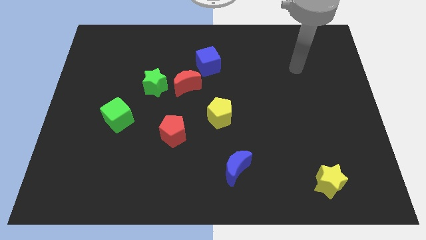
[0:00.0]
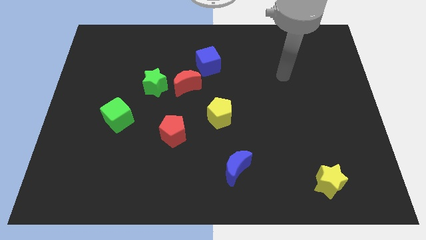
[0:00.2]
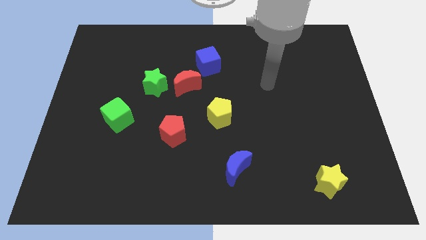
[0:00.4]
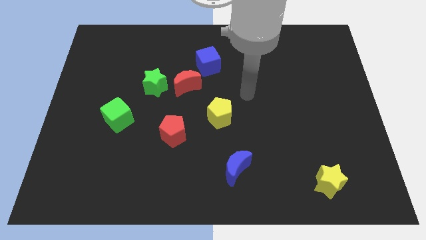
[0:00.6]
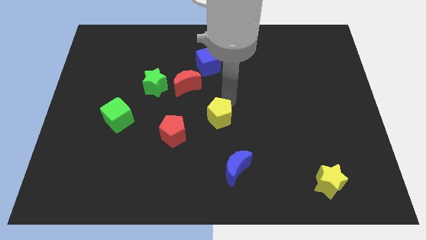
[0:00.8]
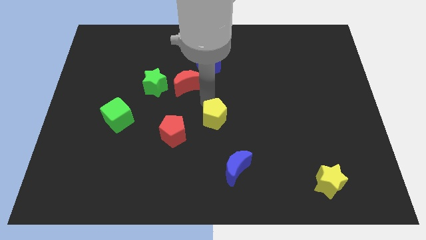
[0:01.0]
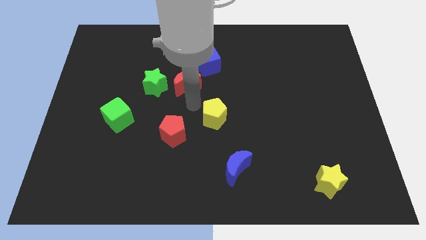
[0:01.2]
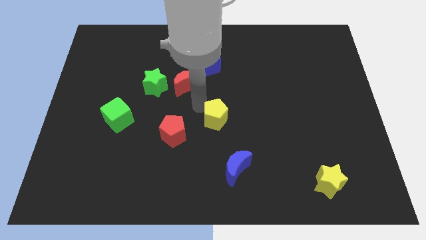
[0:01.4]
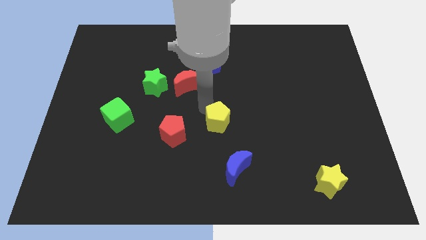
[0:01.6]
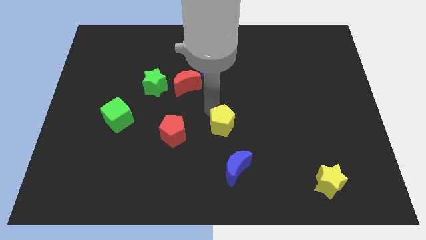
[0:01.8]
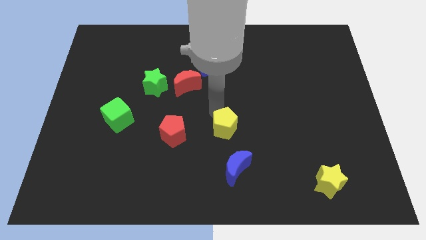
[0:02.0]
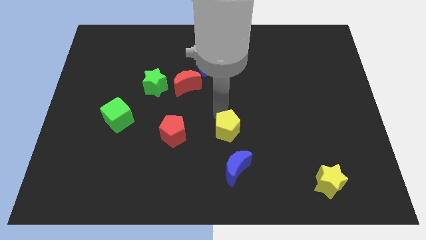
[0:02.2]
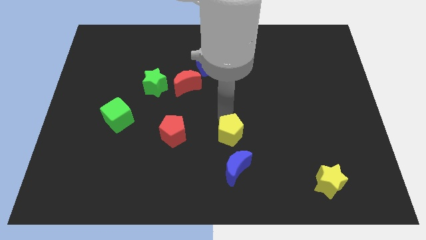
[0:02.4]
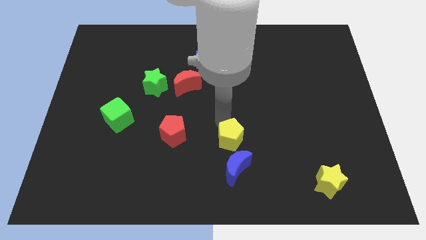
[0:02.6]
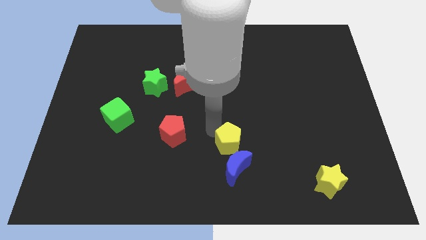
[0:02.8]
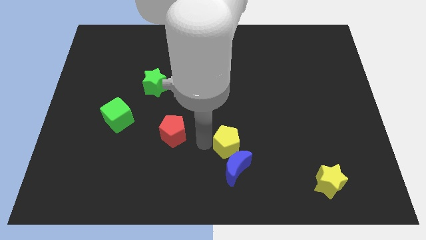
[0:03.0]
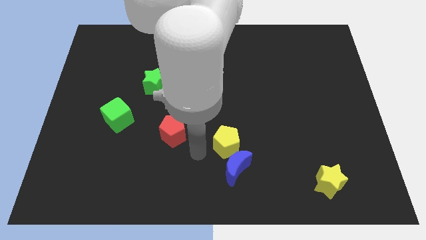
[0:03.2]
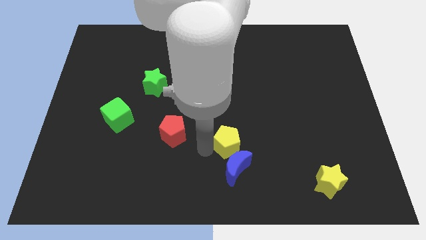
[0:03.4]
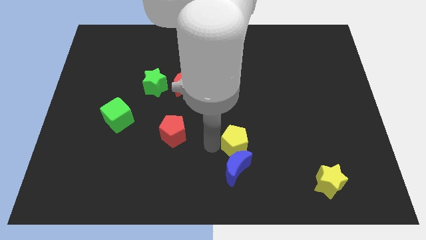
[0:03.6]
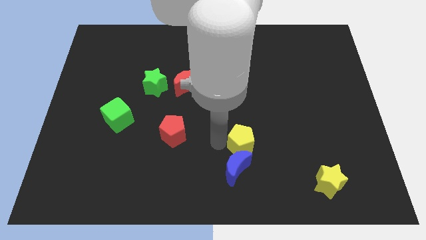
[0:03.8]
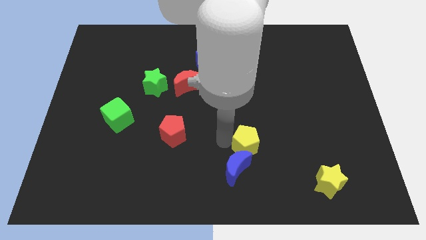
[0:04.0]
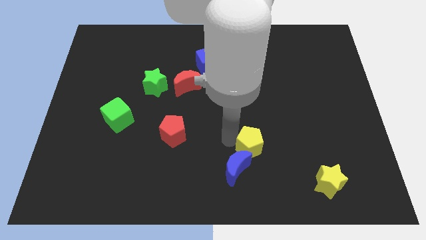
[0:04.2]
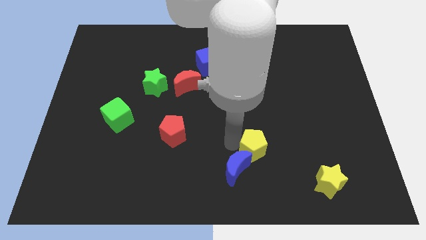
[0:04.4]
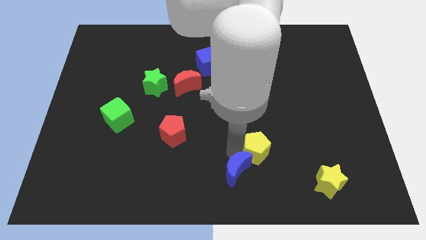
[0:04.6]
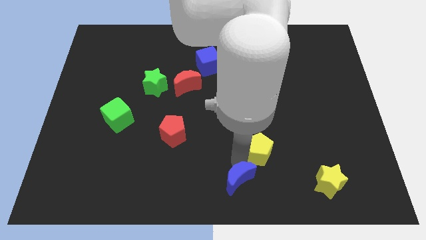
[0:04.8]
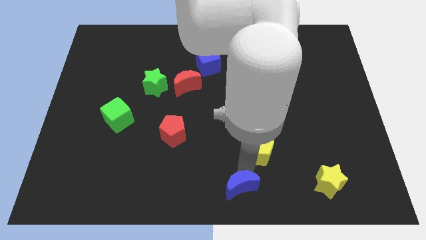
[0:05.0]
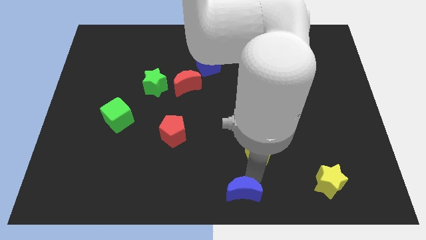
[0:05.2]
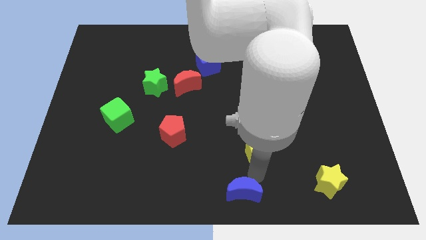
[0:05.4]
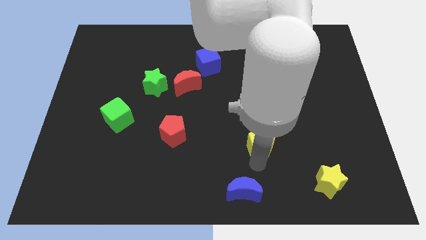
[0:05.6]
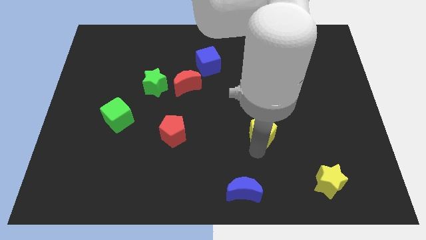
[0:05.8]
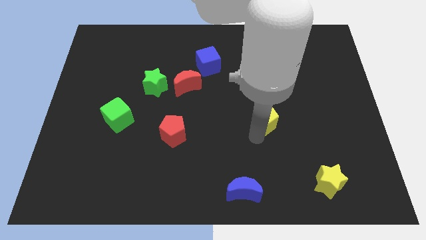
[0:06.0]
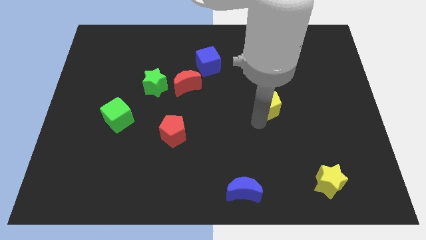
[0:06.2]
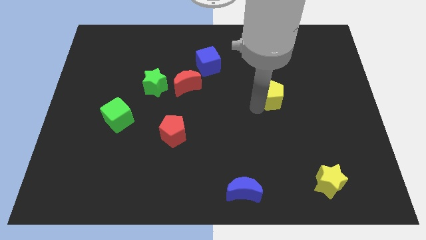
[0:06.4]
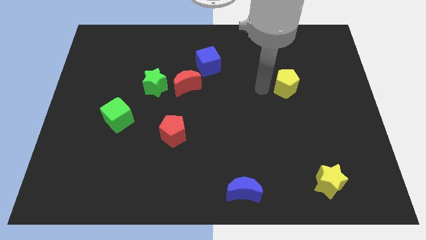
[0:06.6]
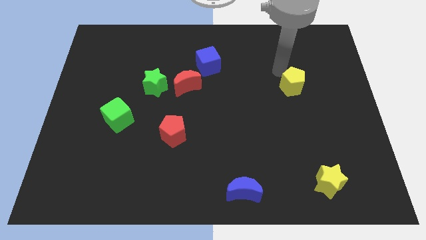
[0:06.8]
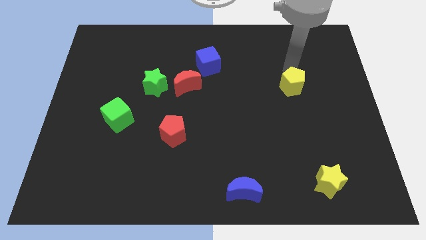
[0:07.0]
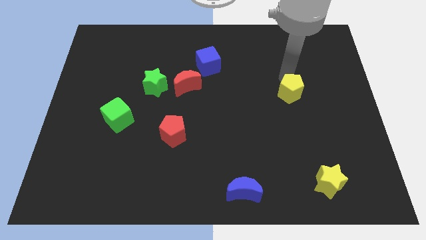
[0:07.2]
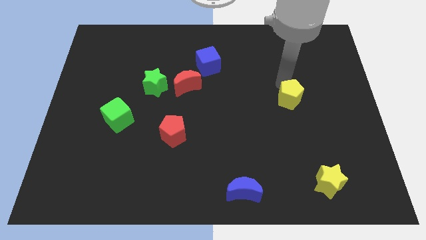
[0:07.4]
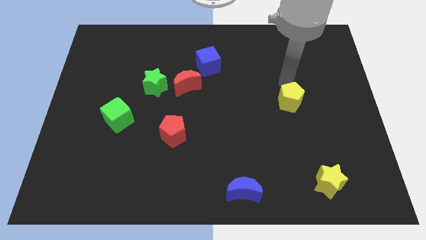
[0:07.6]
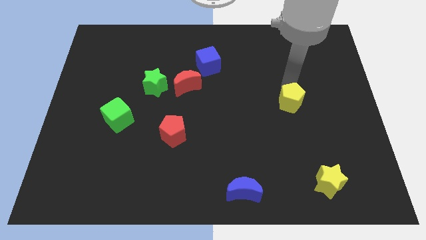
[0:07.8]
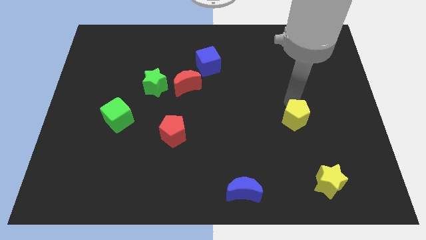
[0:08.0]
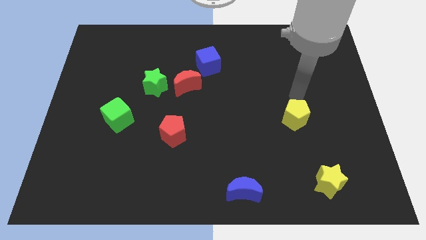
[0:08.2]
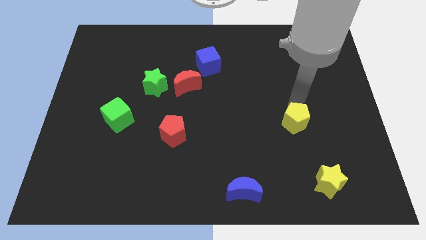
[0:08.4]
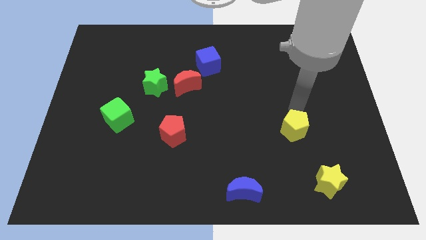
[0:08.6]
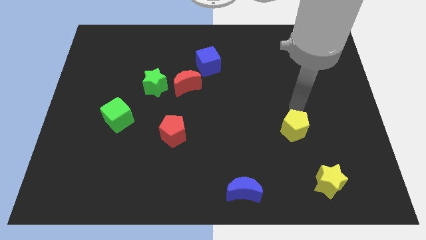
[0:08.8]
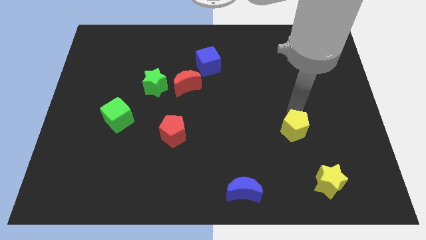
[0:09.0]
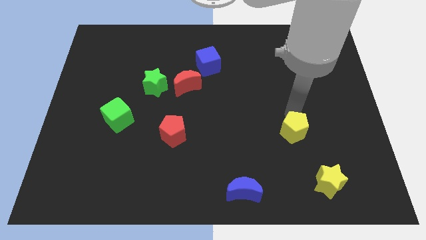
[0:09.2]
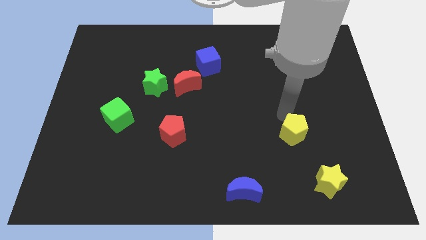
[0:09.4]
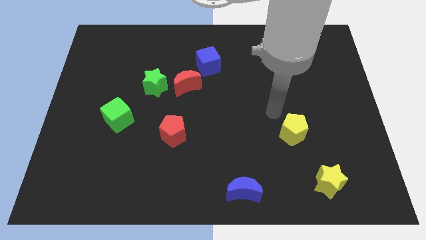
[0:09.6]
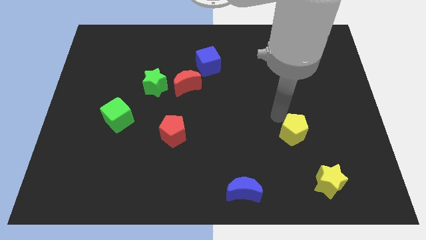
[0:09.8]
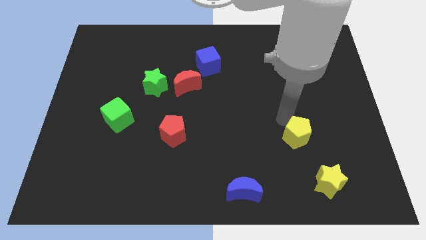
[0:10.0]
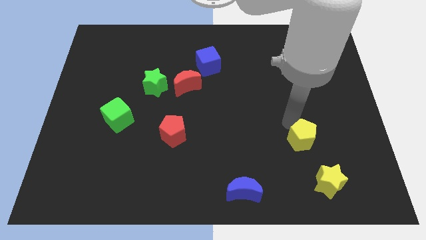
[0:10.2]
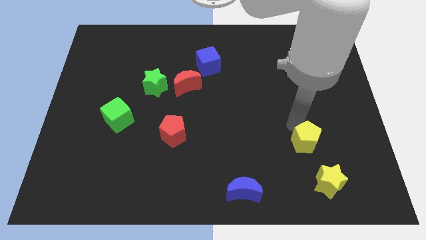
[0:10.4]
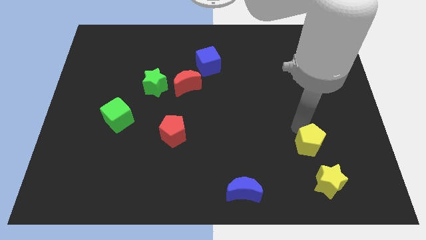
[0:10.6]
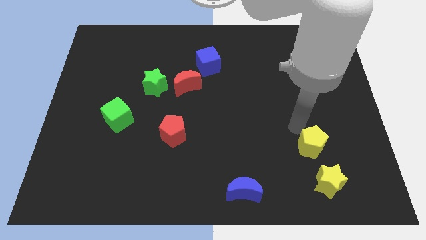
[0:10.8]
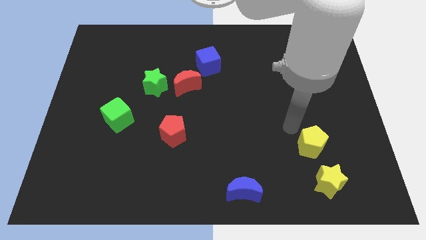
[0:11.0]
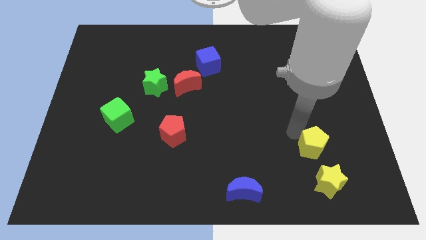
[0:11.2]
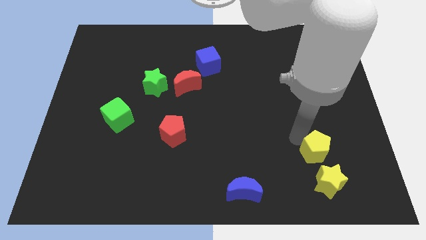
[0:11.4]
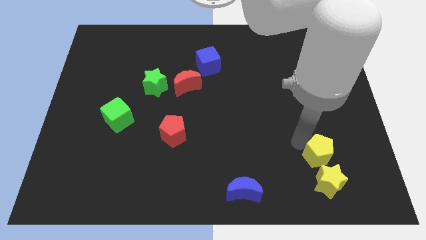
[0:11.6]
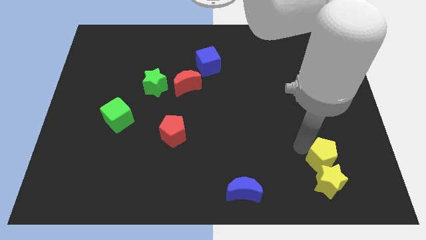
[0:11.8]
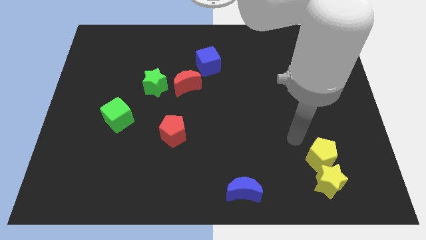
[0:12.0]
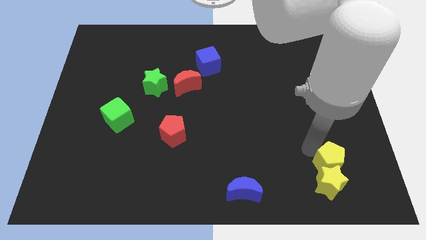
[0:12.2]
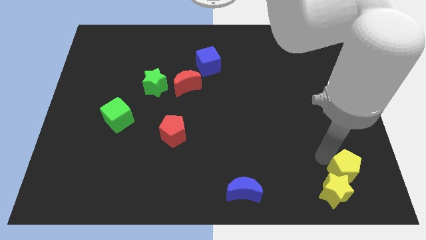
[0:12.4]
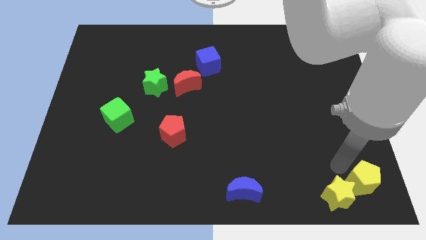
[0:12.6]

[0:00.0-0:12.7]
slide the yellow pentagon to the bottom right

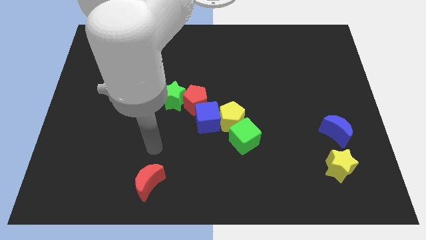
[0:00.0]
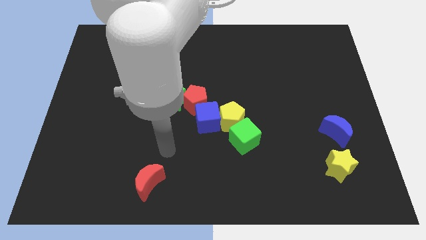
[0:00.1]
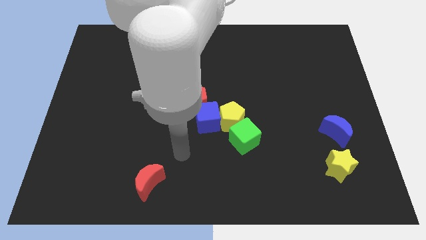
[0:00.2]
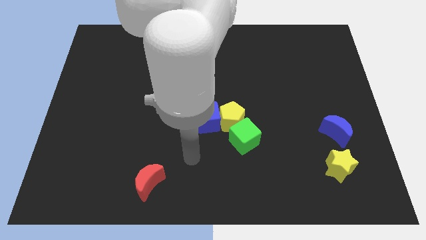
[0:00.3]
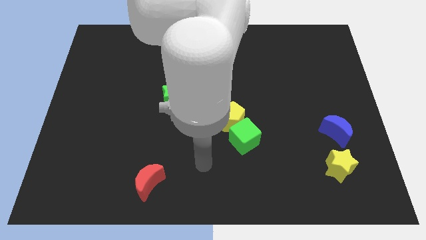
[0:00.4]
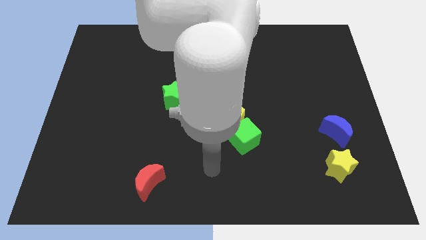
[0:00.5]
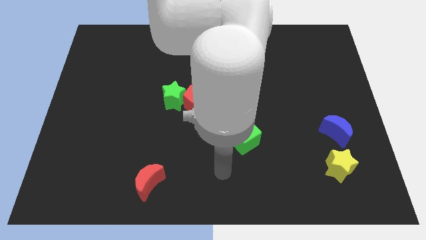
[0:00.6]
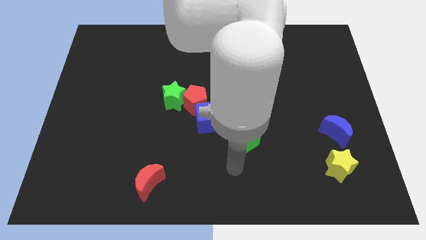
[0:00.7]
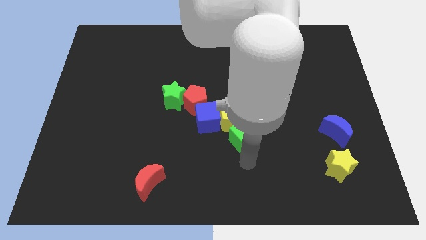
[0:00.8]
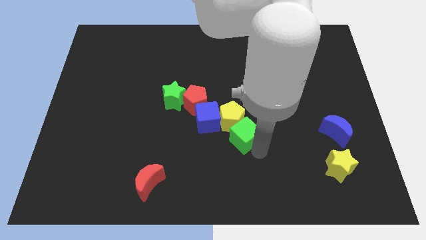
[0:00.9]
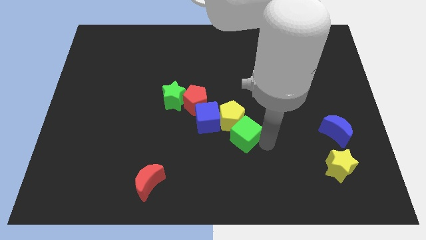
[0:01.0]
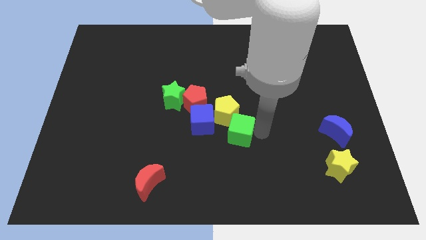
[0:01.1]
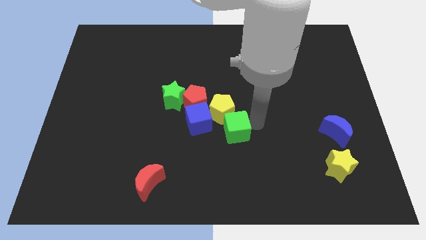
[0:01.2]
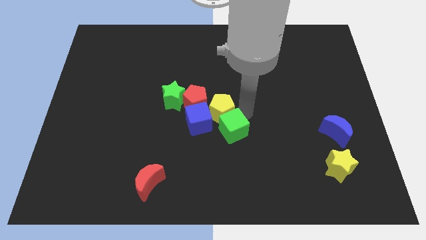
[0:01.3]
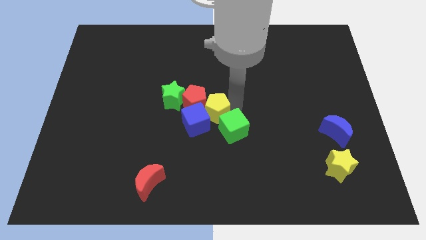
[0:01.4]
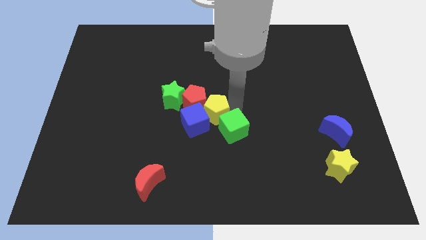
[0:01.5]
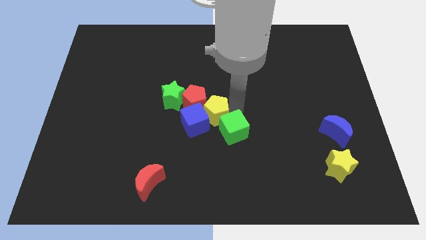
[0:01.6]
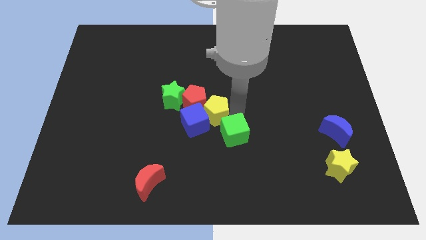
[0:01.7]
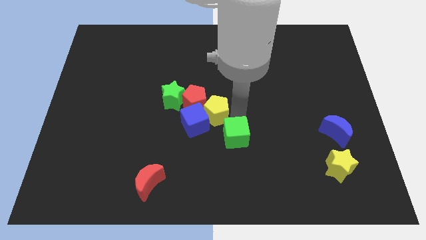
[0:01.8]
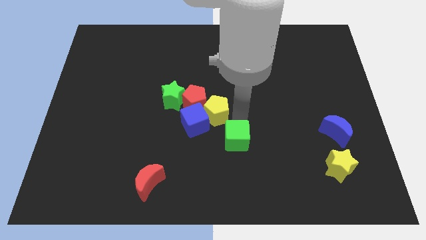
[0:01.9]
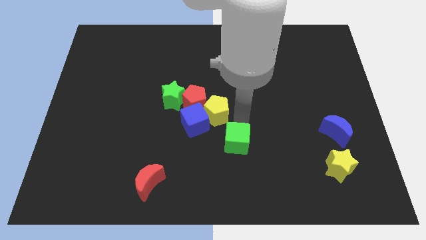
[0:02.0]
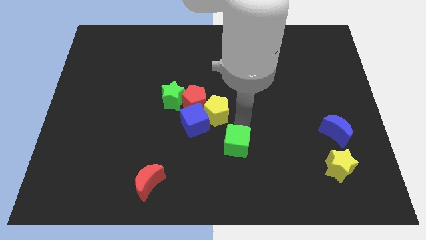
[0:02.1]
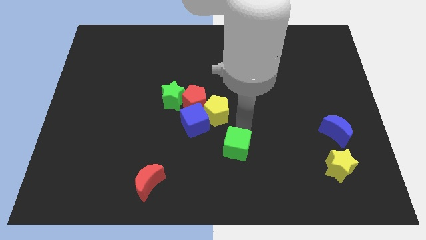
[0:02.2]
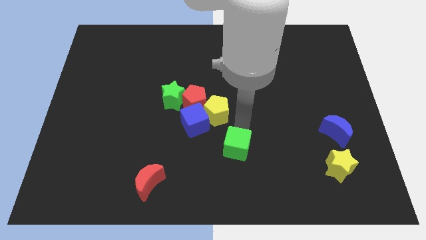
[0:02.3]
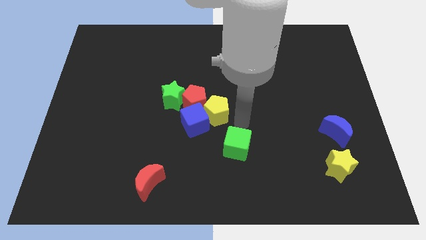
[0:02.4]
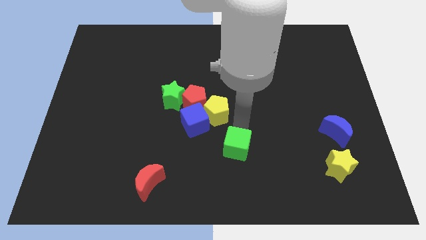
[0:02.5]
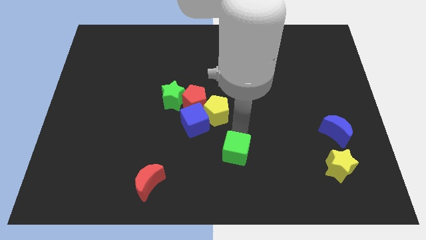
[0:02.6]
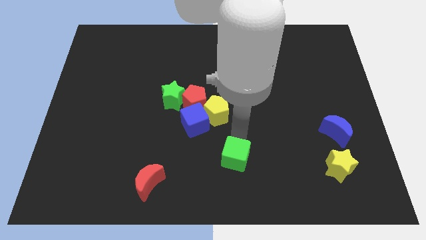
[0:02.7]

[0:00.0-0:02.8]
put the green cube to the bottom
